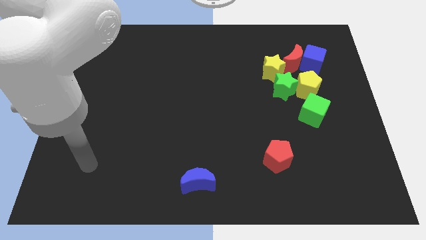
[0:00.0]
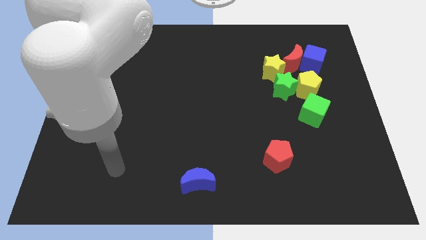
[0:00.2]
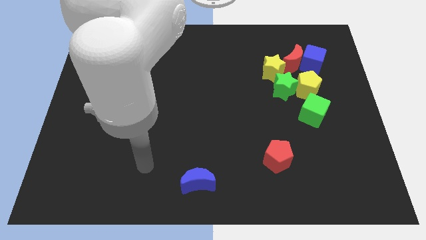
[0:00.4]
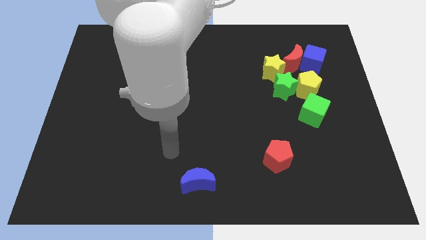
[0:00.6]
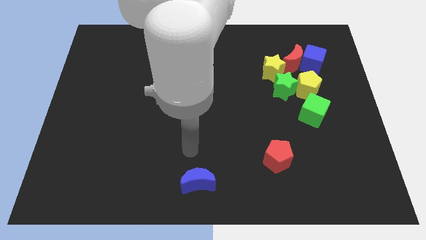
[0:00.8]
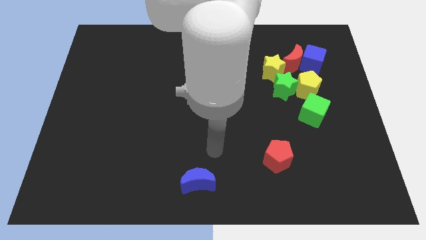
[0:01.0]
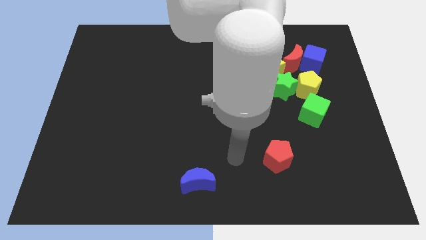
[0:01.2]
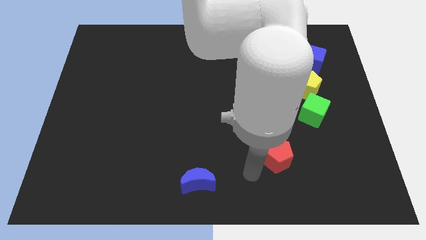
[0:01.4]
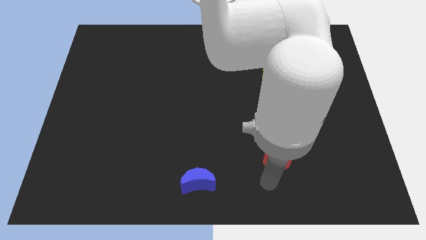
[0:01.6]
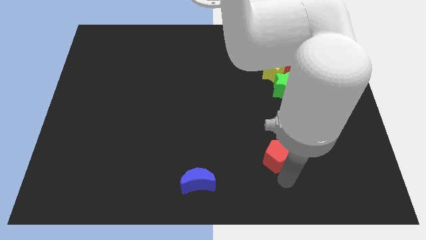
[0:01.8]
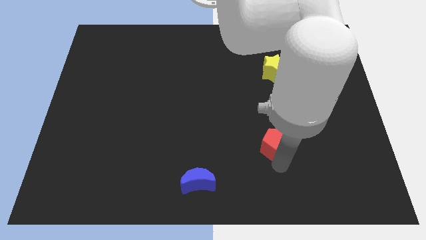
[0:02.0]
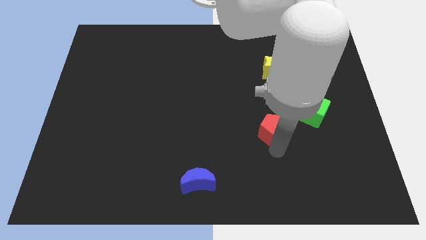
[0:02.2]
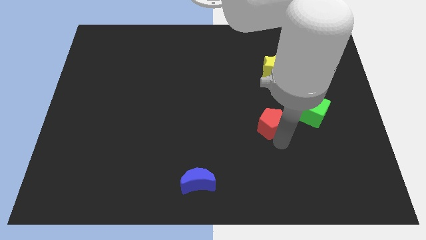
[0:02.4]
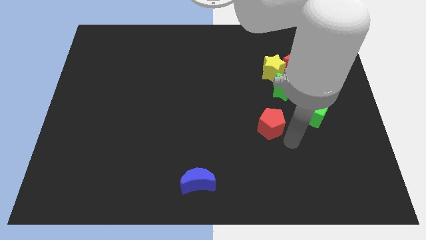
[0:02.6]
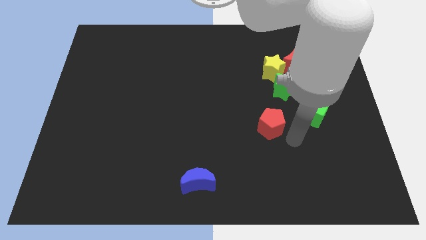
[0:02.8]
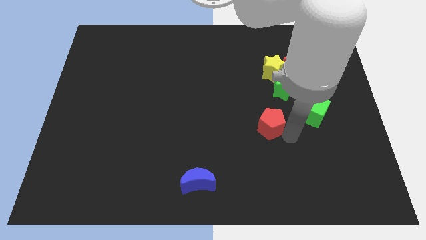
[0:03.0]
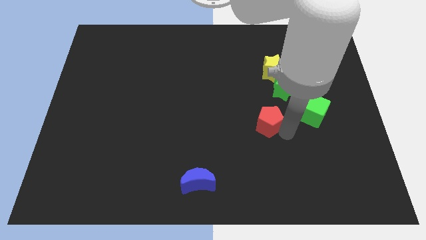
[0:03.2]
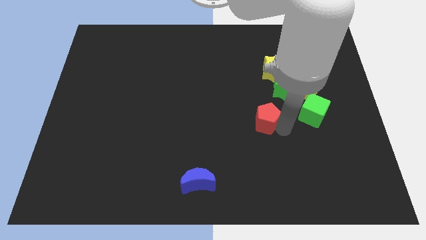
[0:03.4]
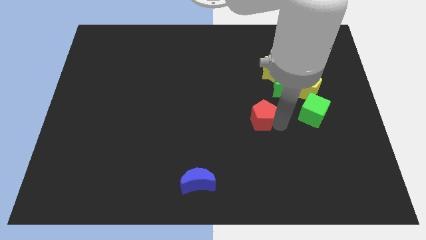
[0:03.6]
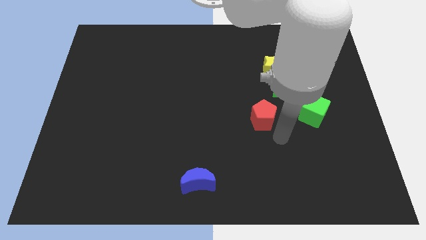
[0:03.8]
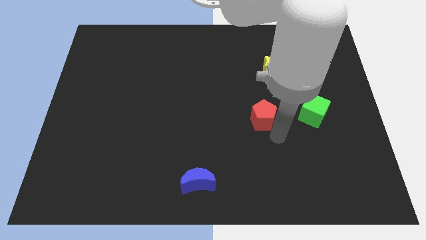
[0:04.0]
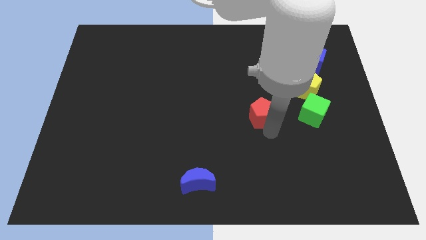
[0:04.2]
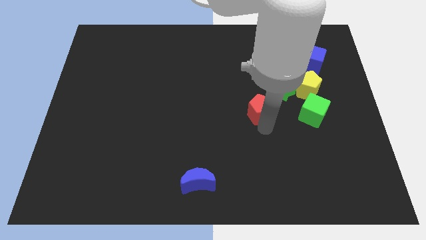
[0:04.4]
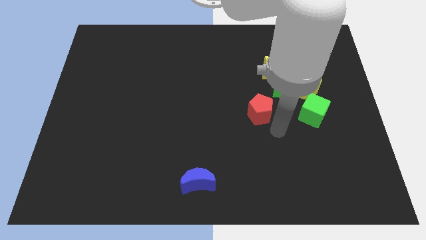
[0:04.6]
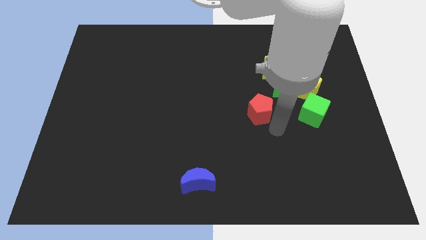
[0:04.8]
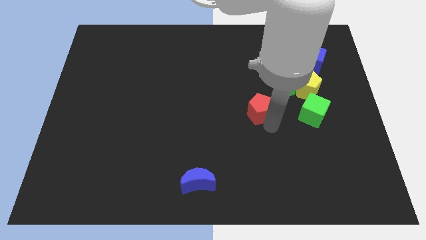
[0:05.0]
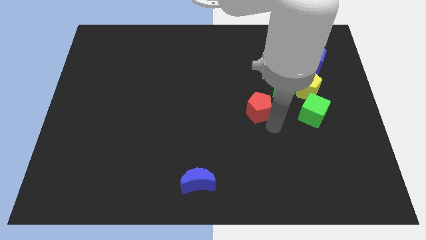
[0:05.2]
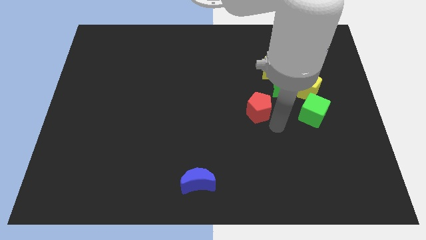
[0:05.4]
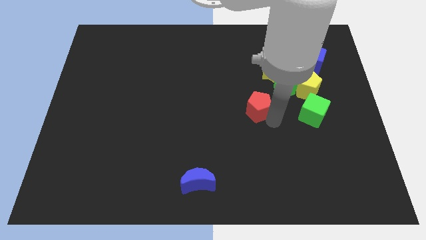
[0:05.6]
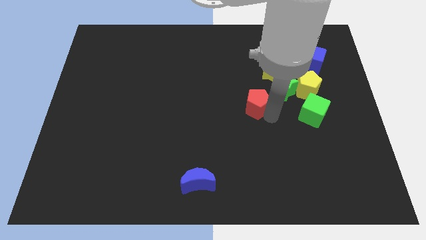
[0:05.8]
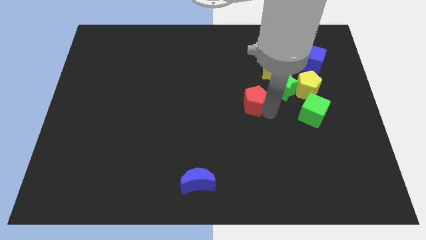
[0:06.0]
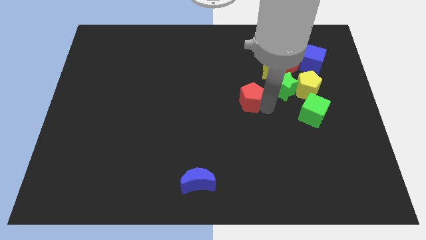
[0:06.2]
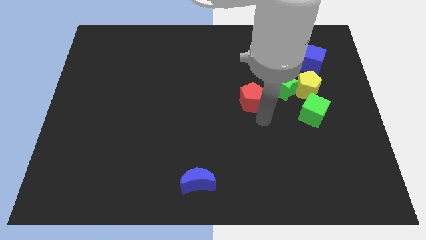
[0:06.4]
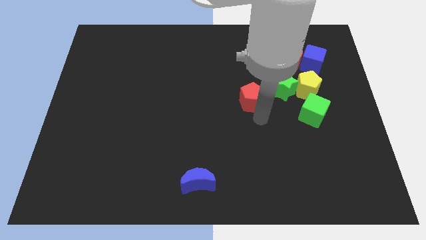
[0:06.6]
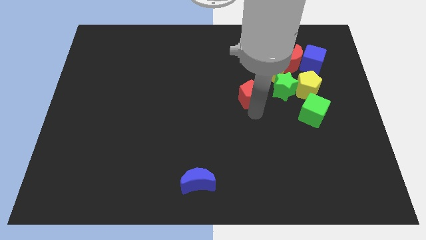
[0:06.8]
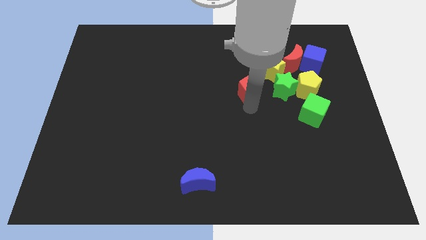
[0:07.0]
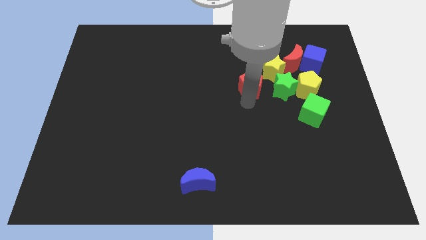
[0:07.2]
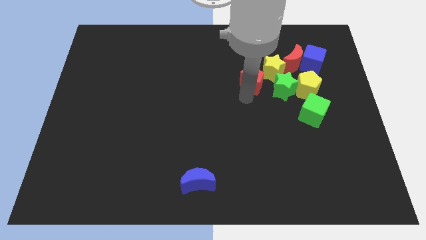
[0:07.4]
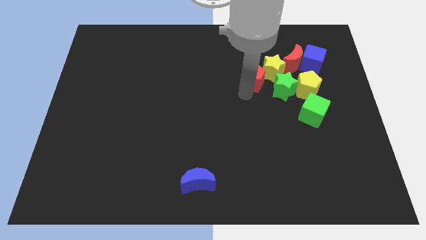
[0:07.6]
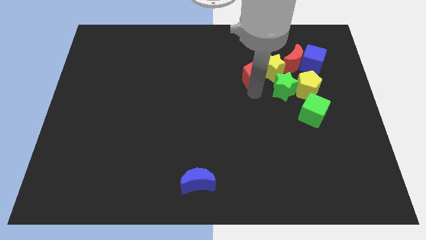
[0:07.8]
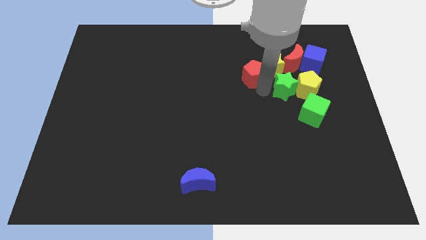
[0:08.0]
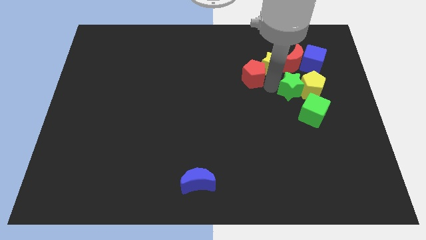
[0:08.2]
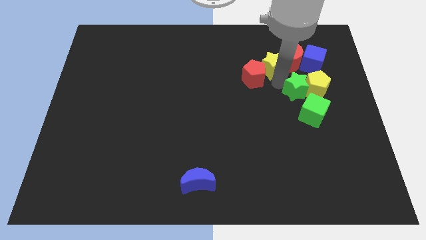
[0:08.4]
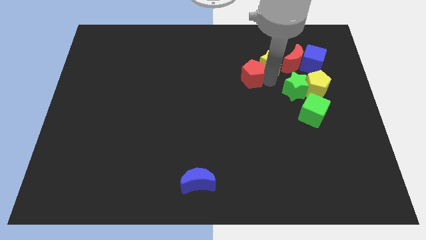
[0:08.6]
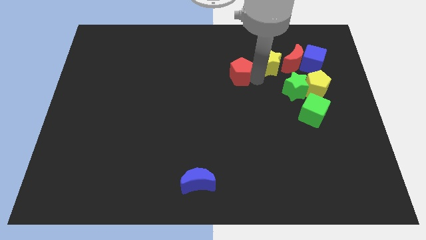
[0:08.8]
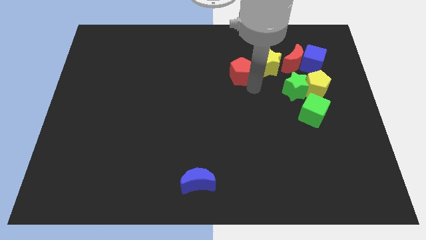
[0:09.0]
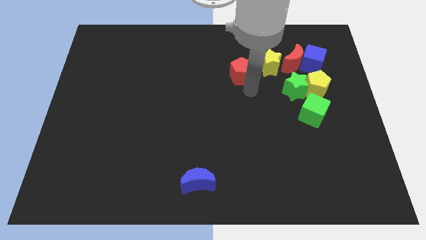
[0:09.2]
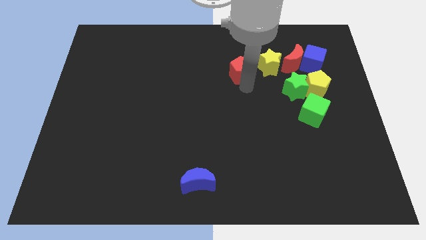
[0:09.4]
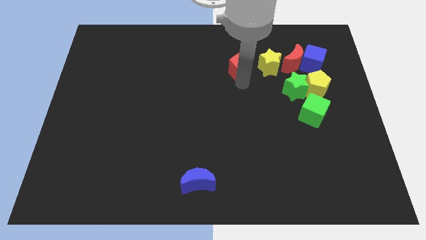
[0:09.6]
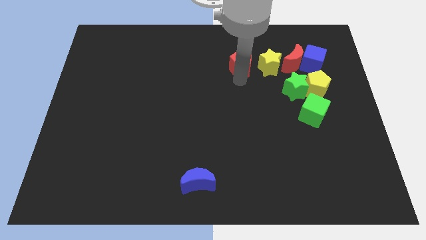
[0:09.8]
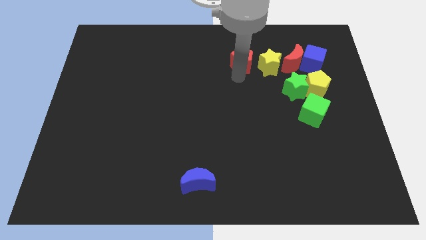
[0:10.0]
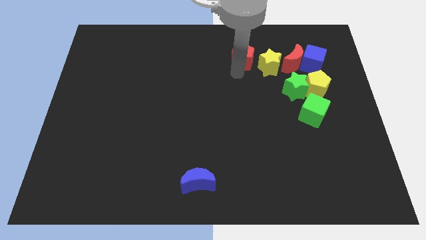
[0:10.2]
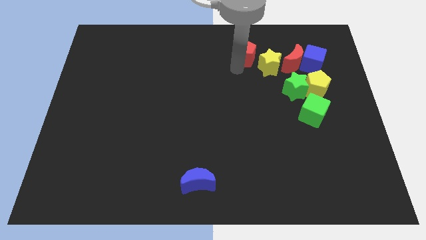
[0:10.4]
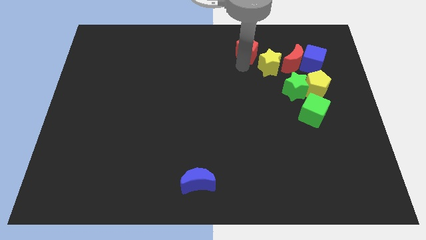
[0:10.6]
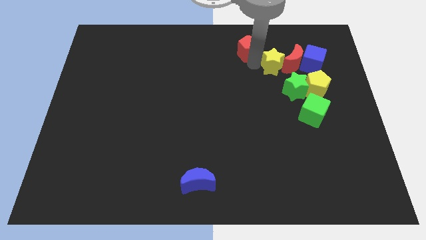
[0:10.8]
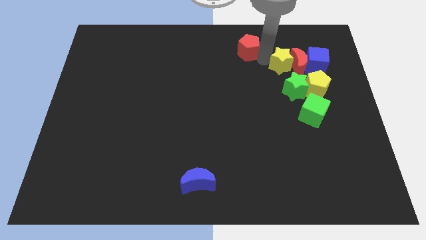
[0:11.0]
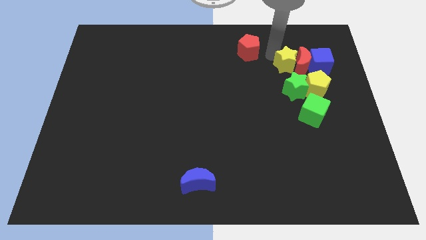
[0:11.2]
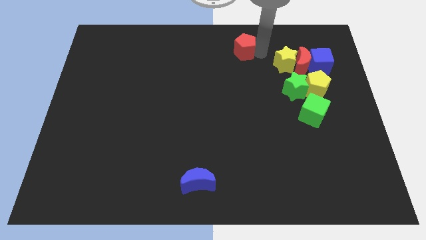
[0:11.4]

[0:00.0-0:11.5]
put the red pentagon to the towards your base
